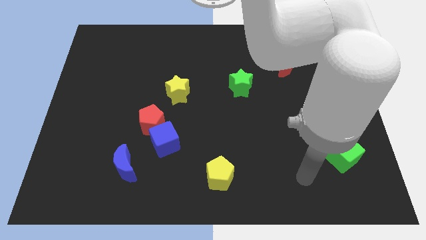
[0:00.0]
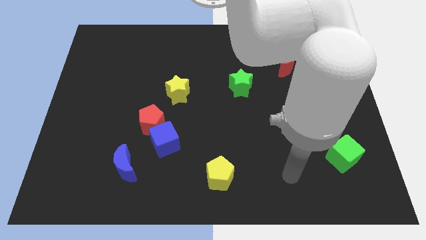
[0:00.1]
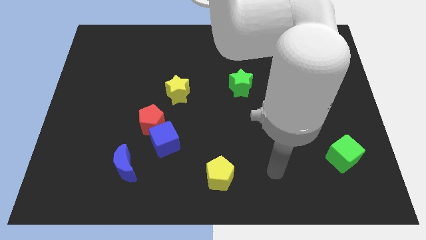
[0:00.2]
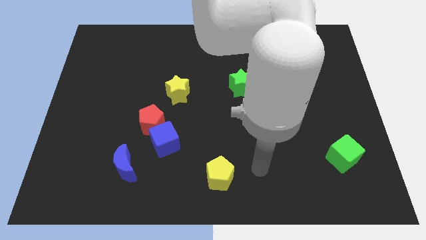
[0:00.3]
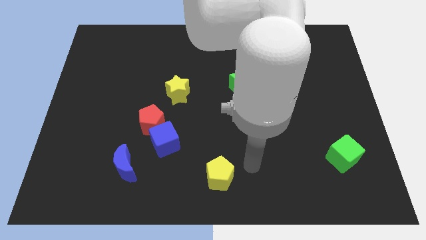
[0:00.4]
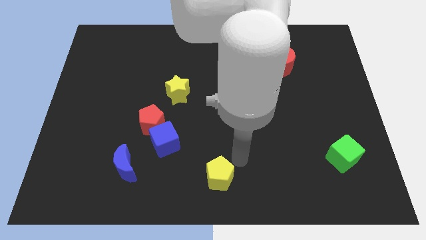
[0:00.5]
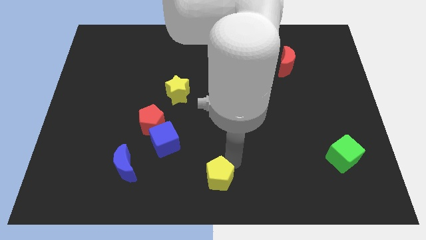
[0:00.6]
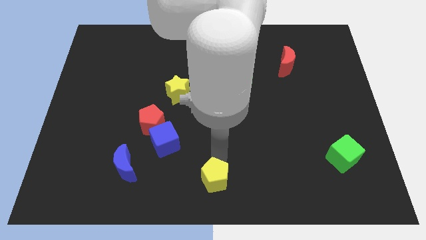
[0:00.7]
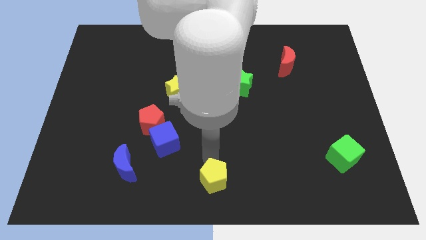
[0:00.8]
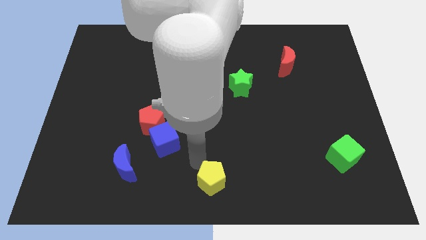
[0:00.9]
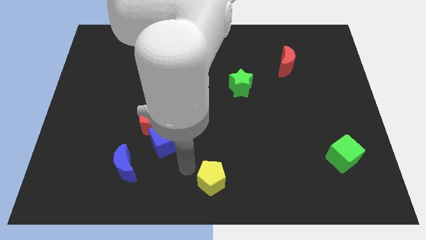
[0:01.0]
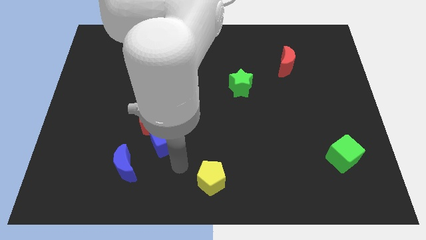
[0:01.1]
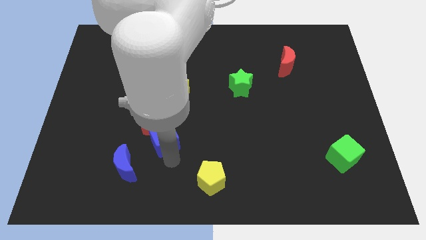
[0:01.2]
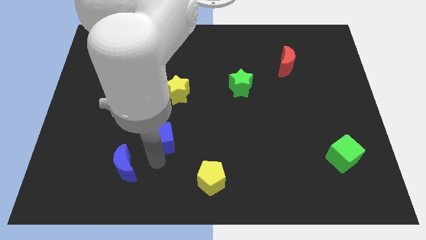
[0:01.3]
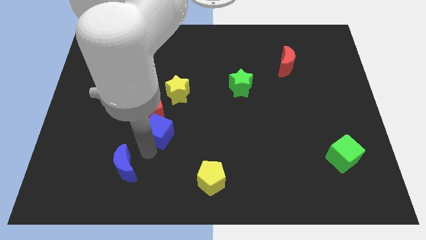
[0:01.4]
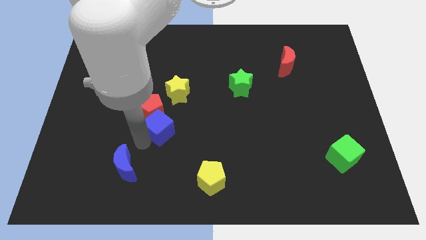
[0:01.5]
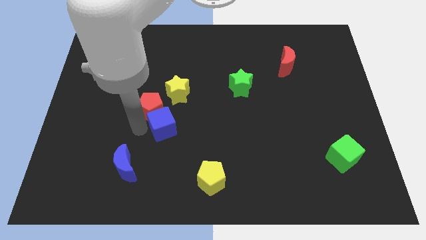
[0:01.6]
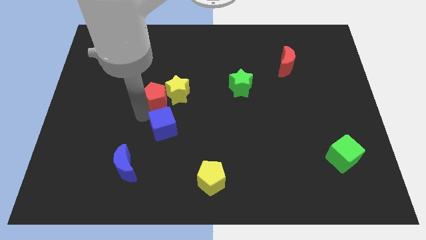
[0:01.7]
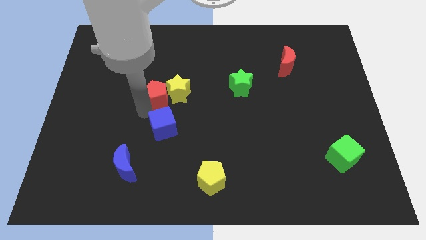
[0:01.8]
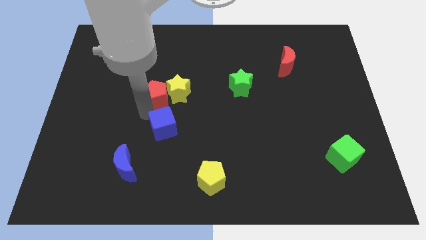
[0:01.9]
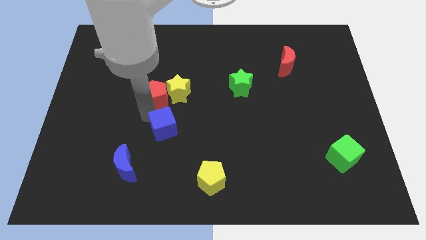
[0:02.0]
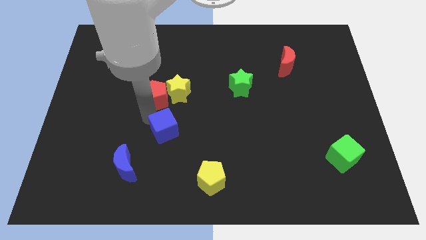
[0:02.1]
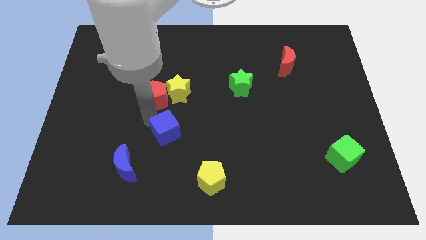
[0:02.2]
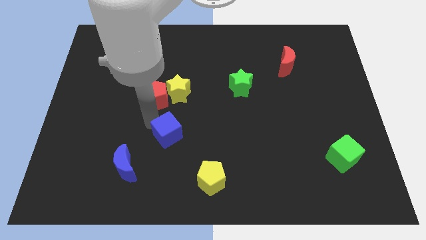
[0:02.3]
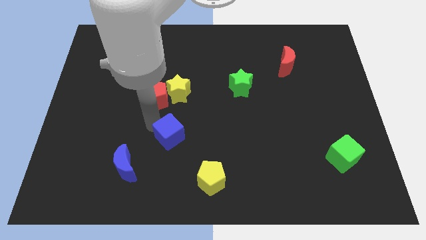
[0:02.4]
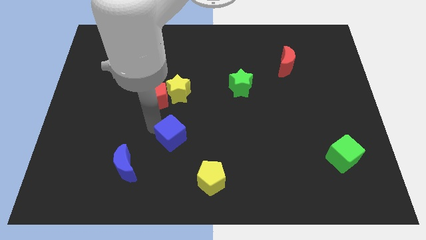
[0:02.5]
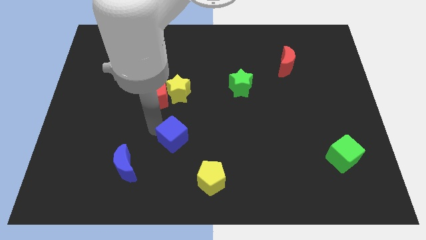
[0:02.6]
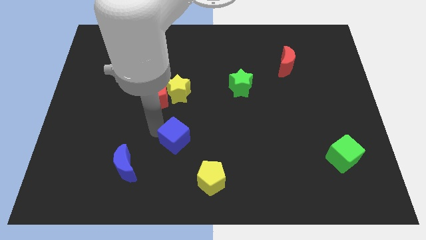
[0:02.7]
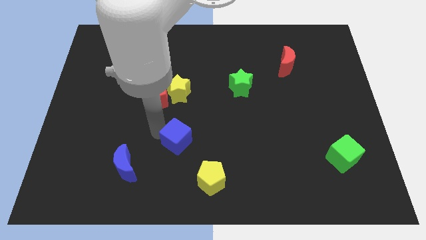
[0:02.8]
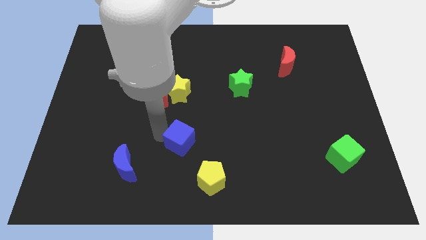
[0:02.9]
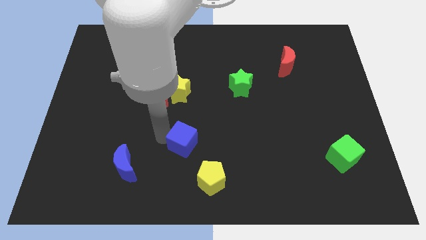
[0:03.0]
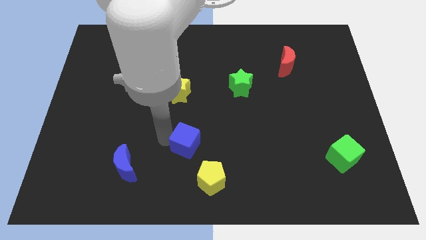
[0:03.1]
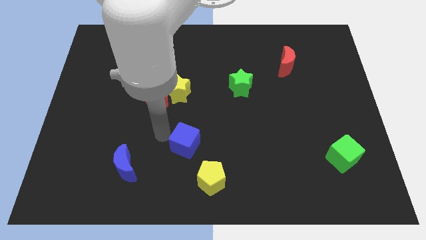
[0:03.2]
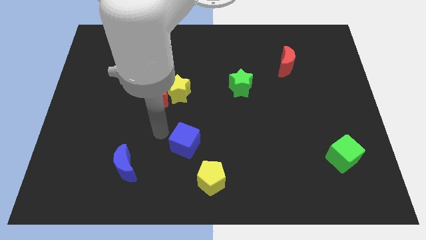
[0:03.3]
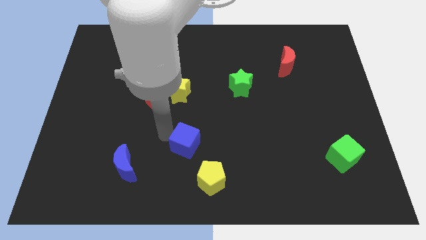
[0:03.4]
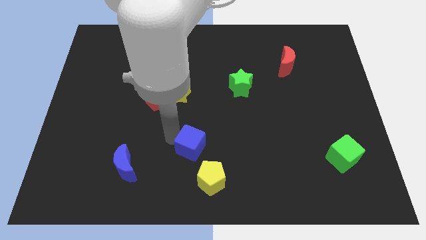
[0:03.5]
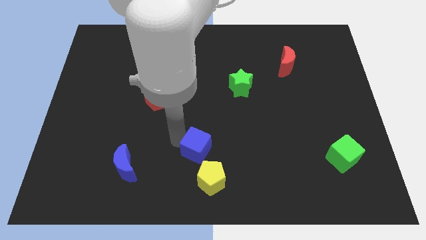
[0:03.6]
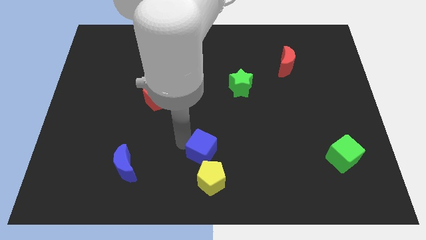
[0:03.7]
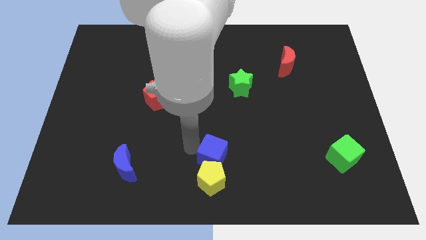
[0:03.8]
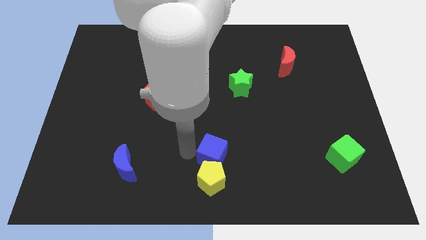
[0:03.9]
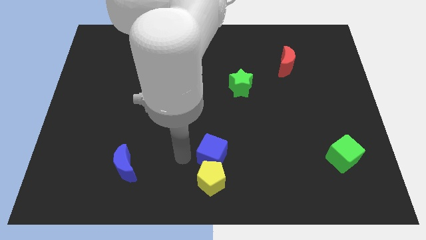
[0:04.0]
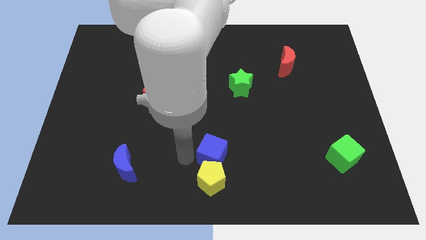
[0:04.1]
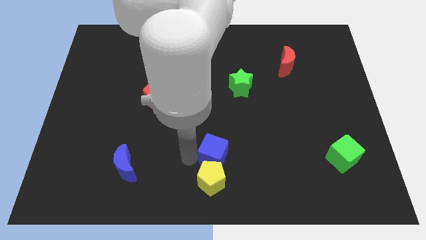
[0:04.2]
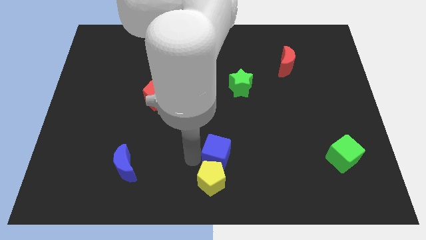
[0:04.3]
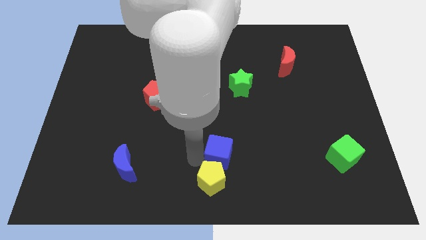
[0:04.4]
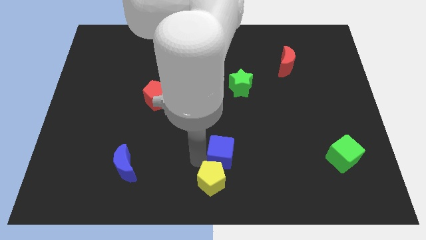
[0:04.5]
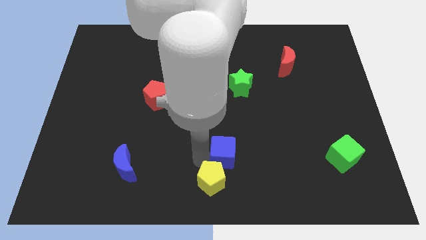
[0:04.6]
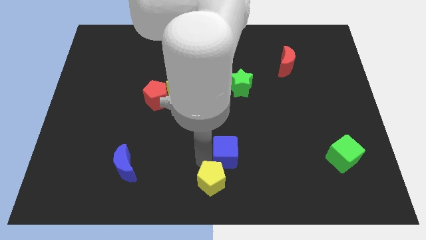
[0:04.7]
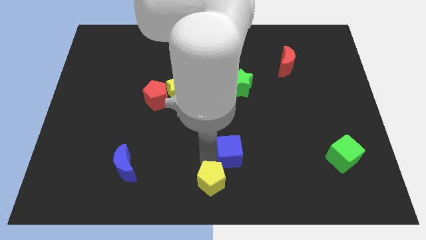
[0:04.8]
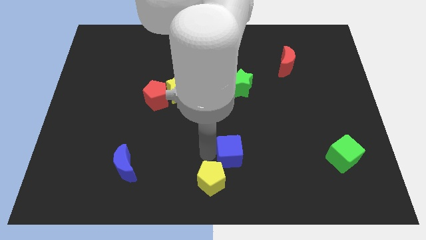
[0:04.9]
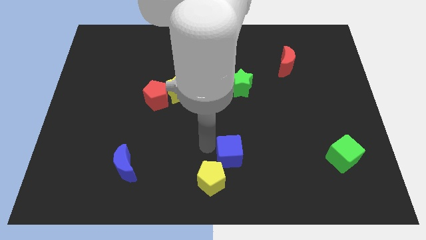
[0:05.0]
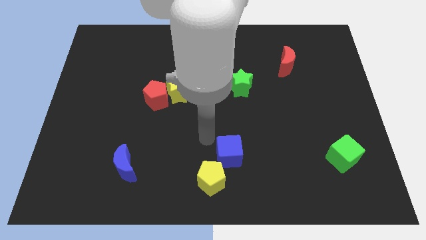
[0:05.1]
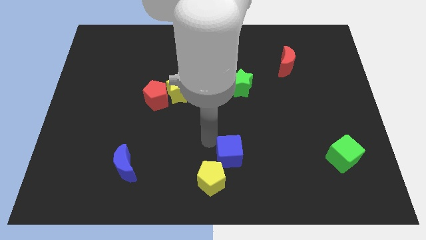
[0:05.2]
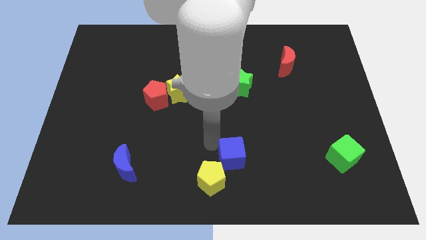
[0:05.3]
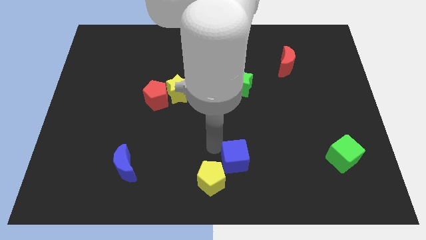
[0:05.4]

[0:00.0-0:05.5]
slide the blue cube to the right side of the yellow pentagon

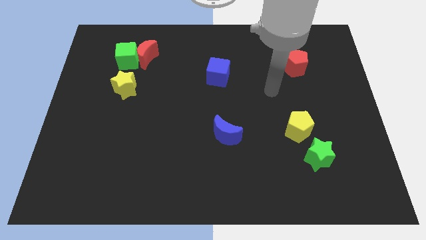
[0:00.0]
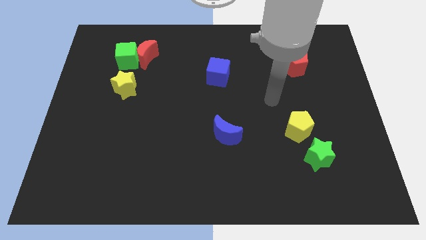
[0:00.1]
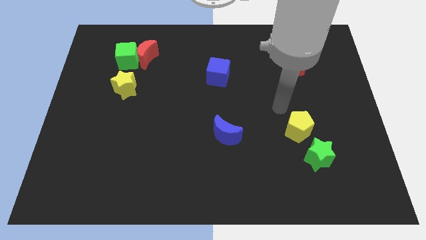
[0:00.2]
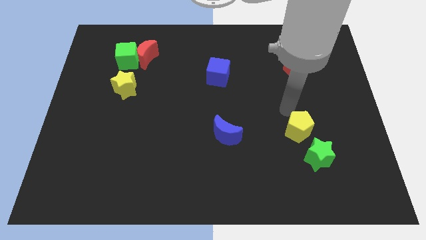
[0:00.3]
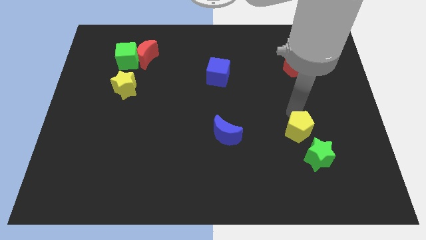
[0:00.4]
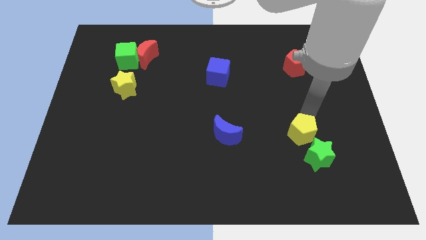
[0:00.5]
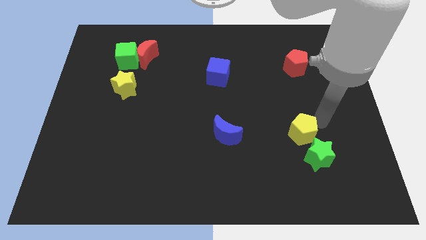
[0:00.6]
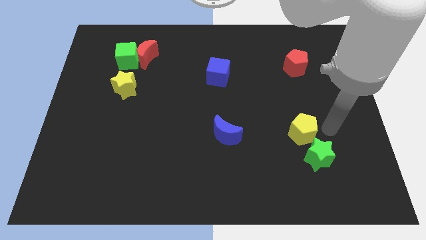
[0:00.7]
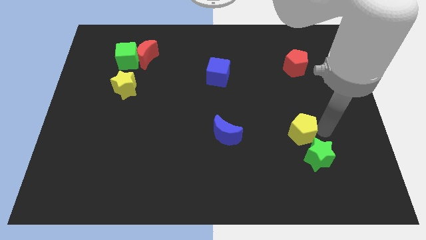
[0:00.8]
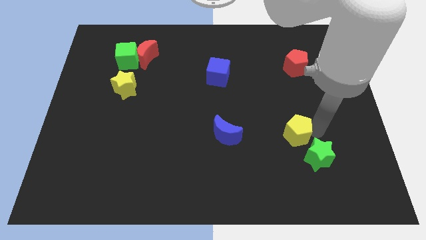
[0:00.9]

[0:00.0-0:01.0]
put the yellow pentagon just right of the blue moon
